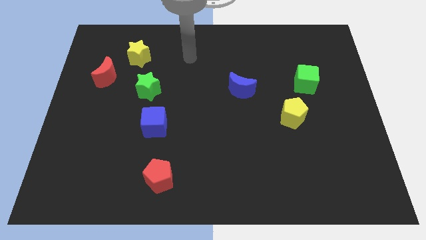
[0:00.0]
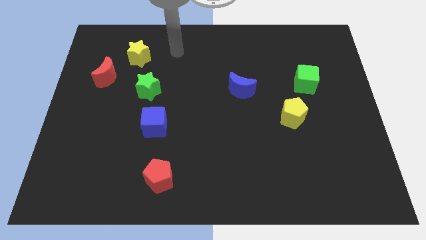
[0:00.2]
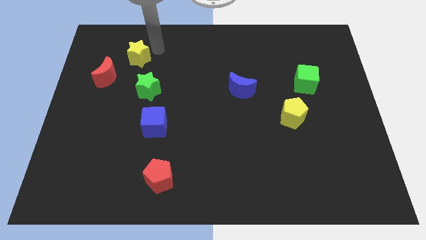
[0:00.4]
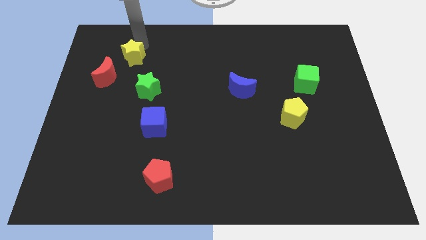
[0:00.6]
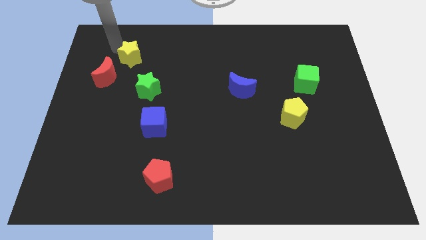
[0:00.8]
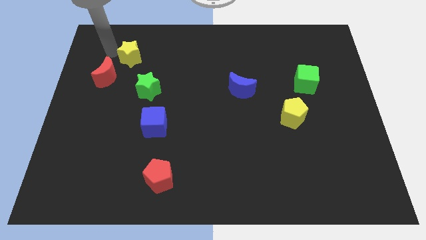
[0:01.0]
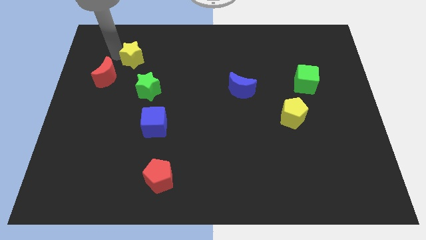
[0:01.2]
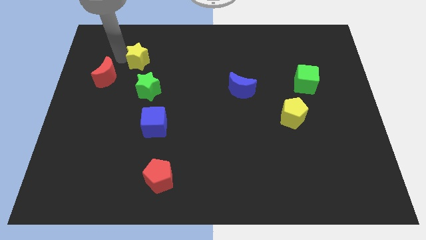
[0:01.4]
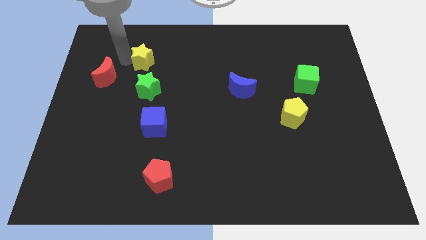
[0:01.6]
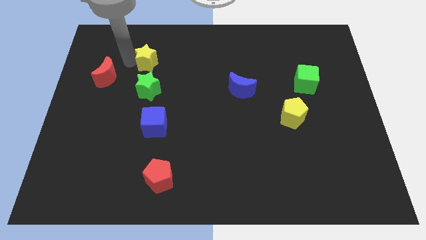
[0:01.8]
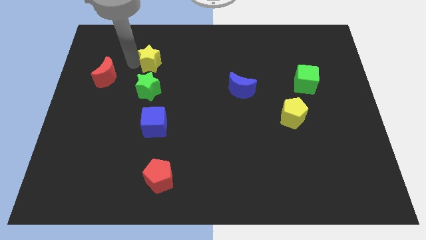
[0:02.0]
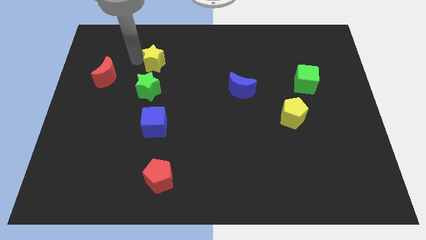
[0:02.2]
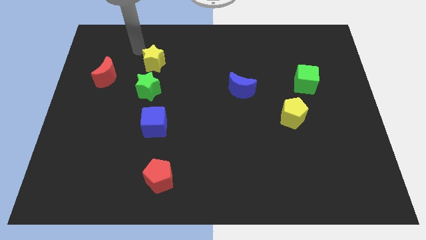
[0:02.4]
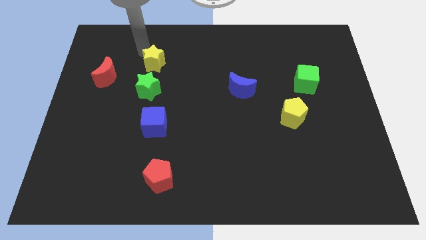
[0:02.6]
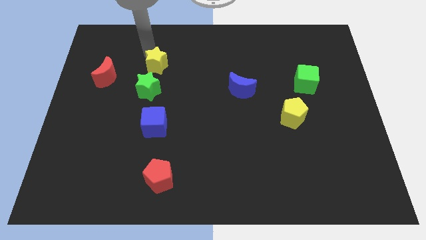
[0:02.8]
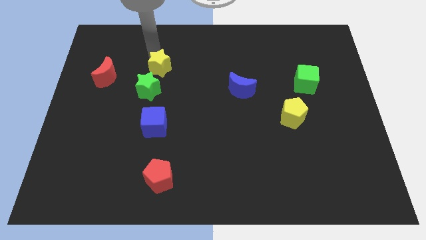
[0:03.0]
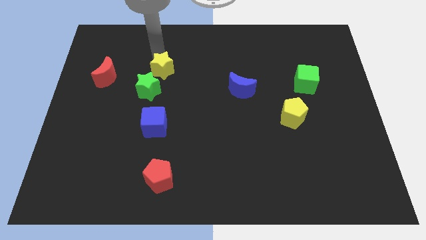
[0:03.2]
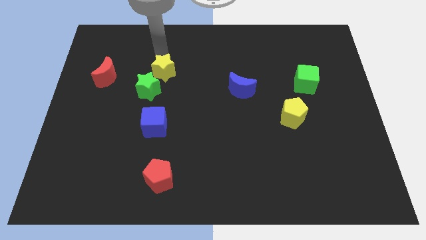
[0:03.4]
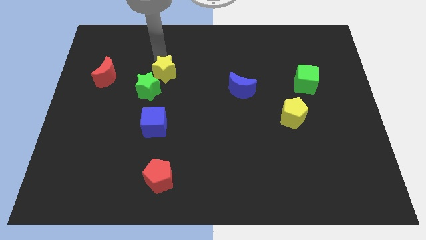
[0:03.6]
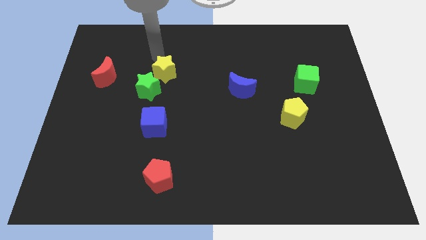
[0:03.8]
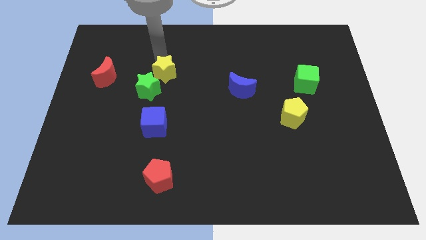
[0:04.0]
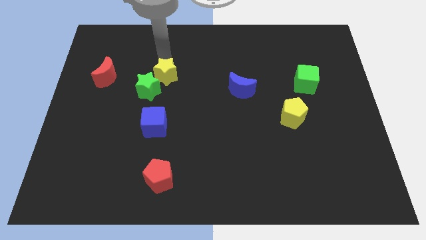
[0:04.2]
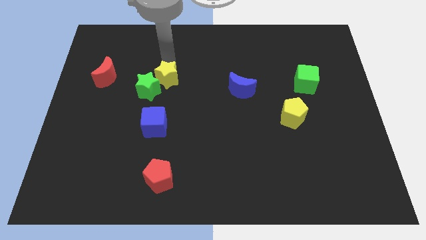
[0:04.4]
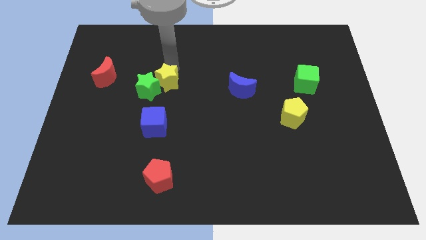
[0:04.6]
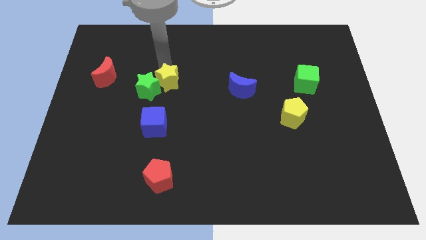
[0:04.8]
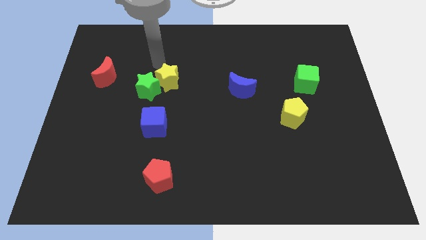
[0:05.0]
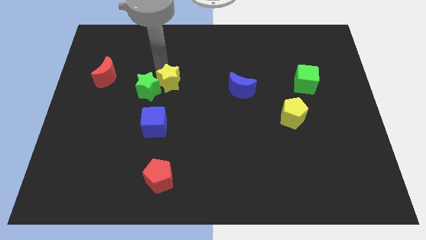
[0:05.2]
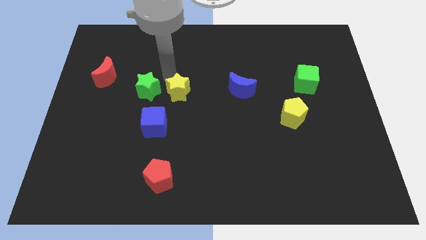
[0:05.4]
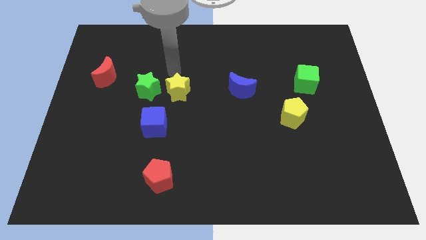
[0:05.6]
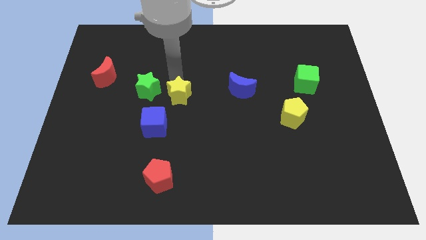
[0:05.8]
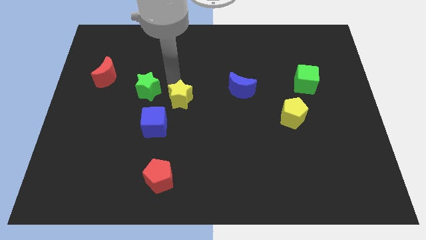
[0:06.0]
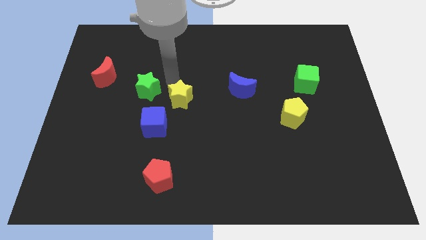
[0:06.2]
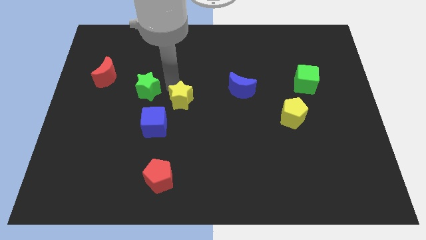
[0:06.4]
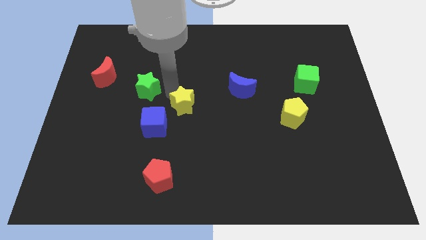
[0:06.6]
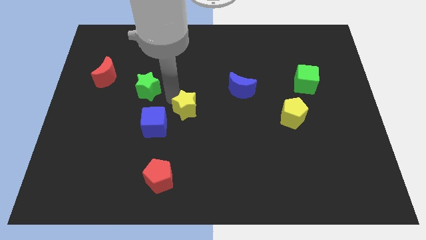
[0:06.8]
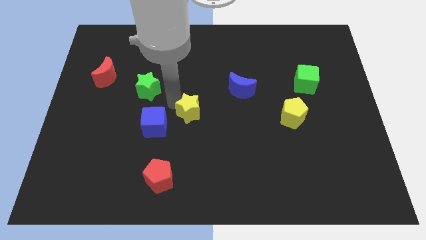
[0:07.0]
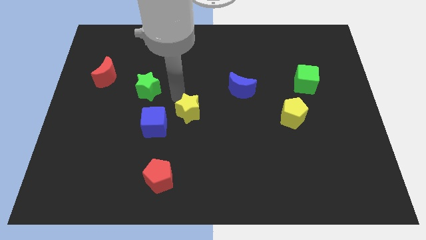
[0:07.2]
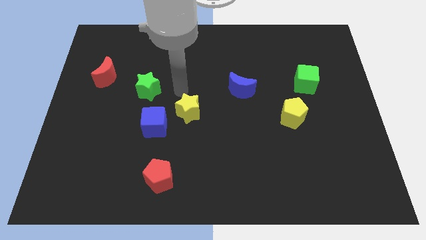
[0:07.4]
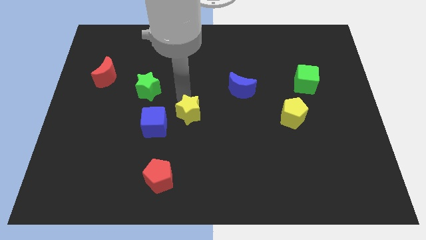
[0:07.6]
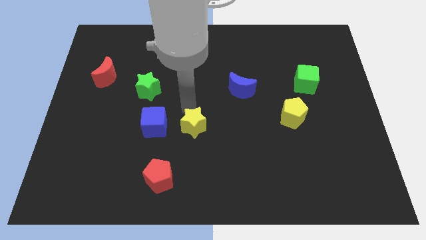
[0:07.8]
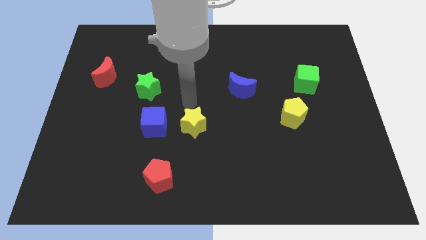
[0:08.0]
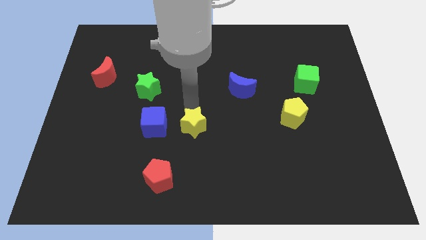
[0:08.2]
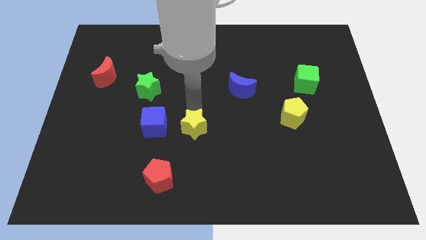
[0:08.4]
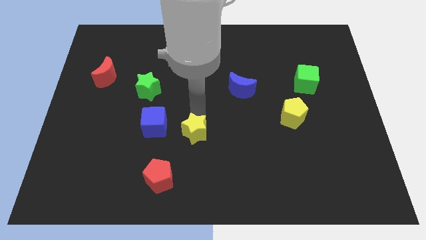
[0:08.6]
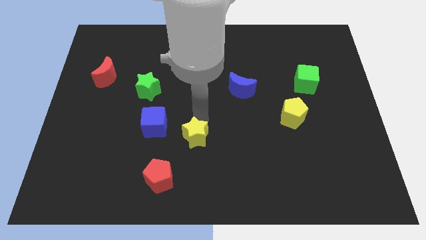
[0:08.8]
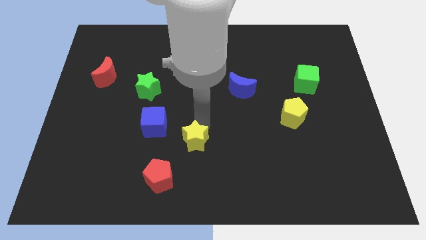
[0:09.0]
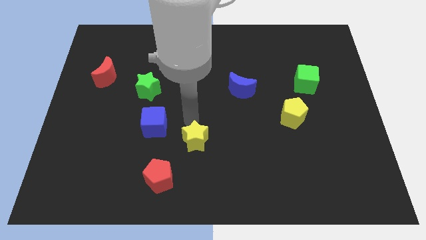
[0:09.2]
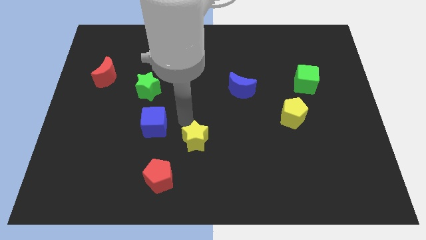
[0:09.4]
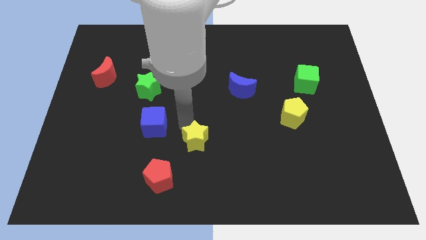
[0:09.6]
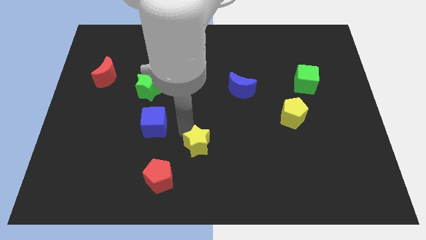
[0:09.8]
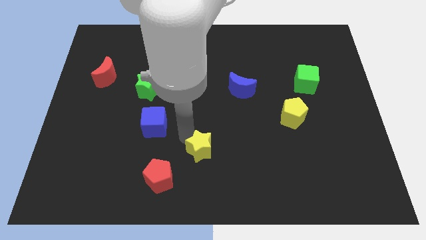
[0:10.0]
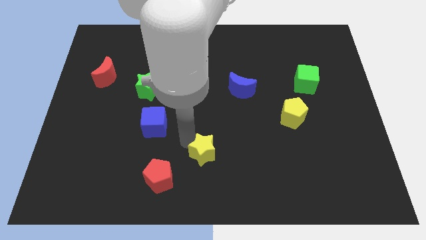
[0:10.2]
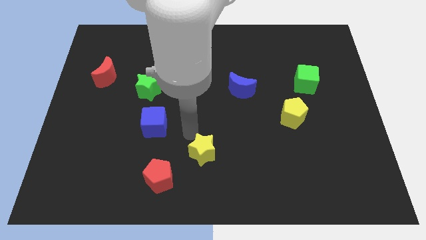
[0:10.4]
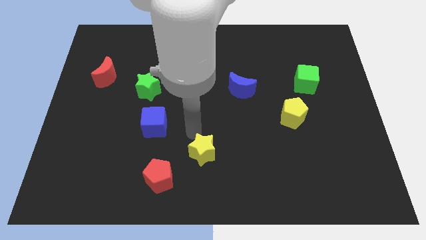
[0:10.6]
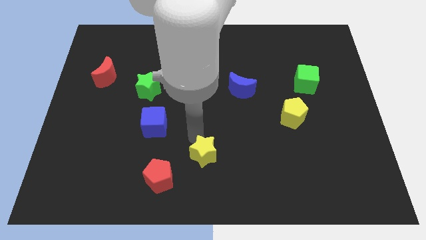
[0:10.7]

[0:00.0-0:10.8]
move the yellow star to the bottom
